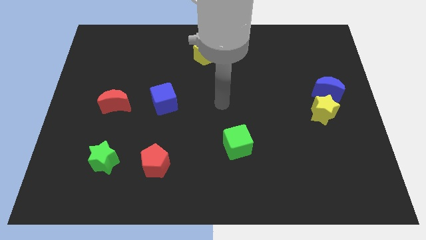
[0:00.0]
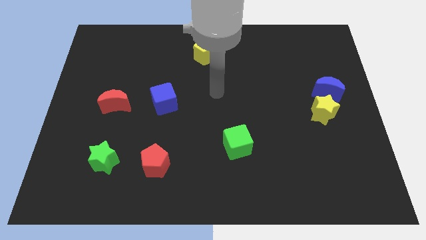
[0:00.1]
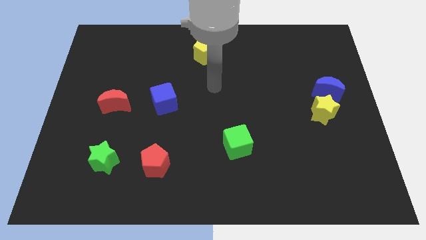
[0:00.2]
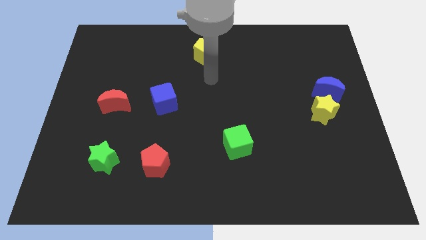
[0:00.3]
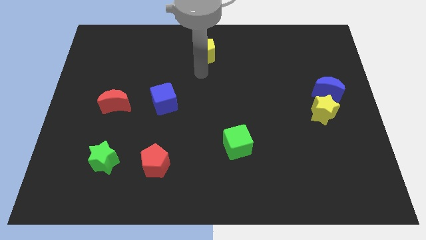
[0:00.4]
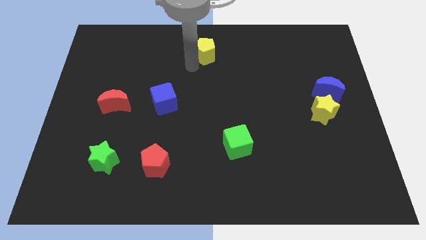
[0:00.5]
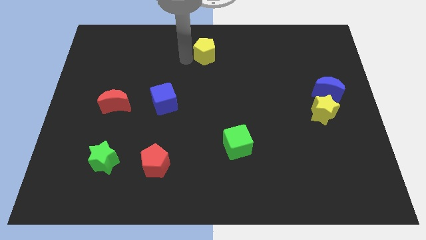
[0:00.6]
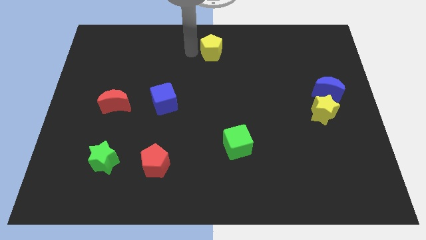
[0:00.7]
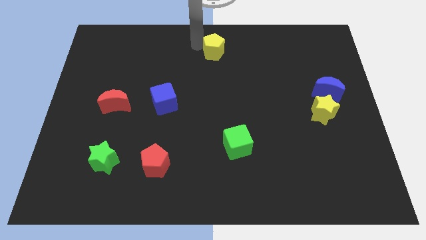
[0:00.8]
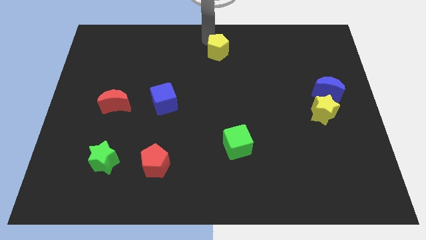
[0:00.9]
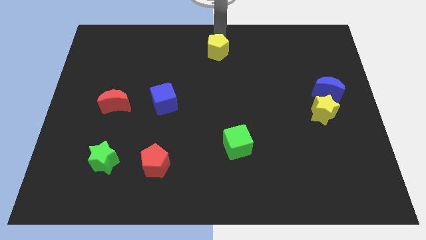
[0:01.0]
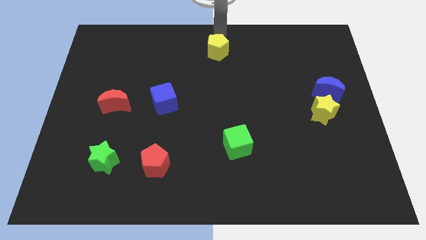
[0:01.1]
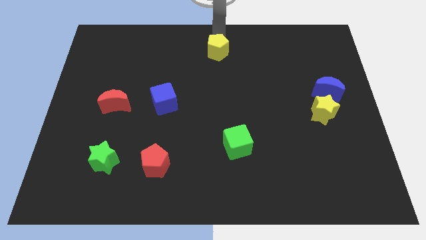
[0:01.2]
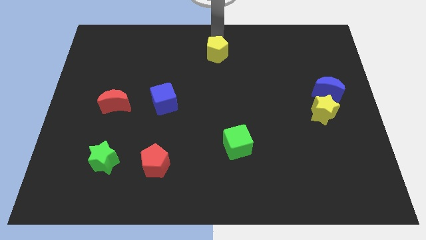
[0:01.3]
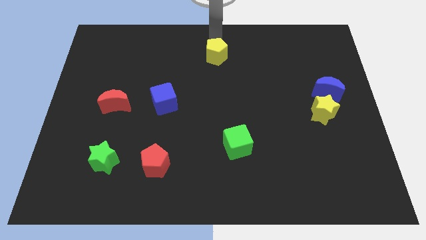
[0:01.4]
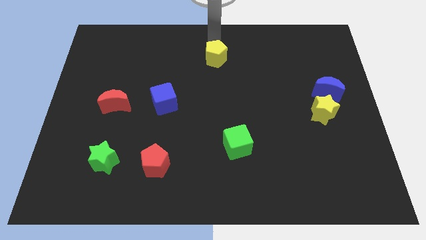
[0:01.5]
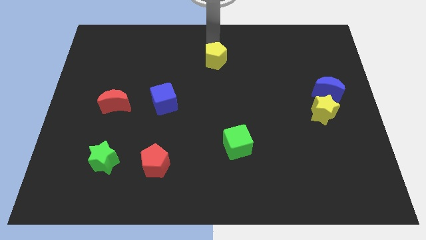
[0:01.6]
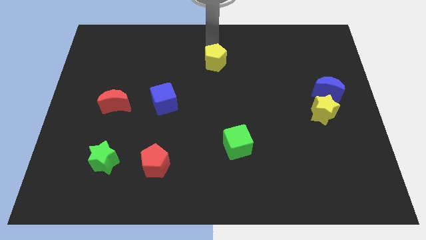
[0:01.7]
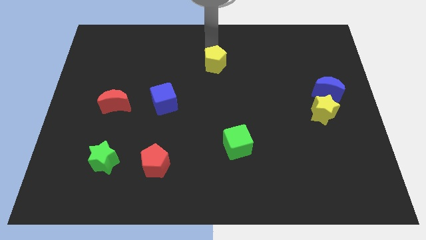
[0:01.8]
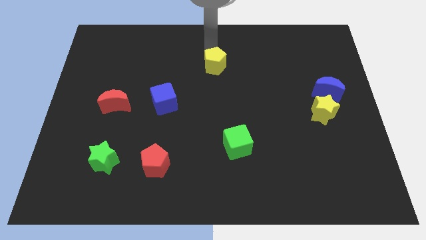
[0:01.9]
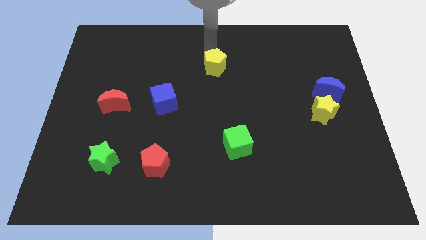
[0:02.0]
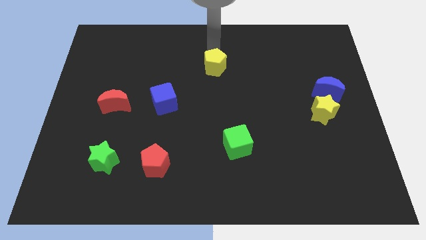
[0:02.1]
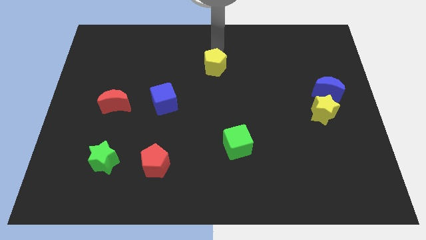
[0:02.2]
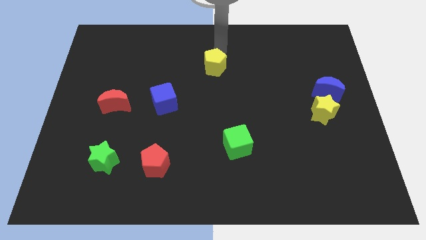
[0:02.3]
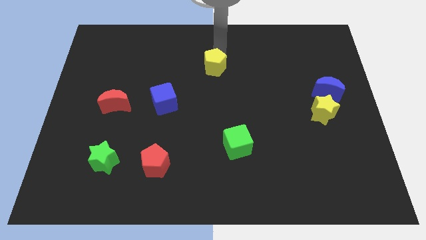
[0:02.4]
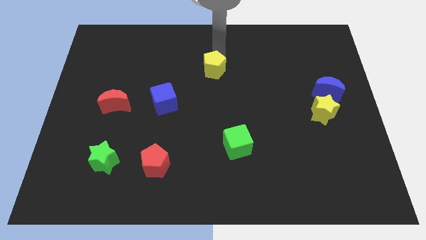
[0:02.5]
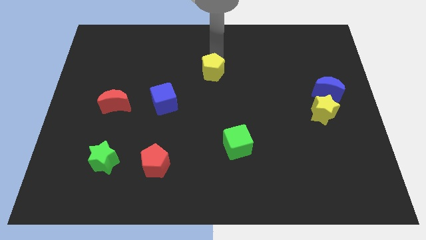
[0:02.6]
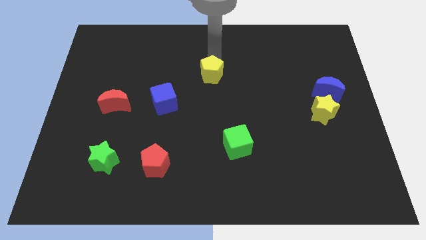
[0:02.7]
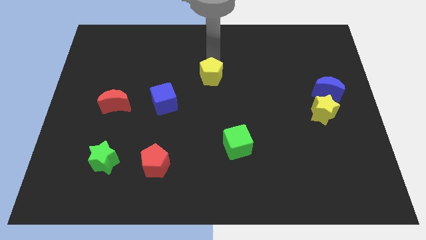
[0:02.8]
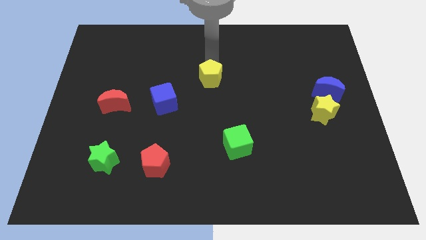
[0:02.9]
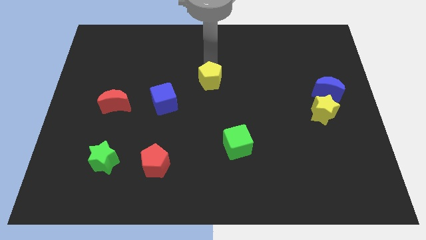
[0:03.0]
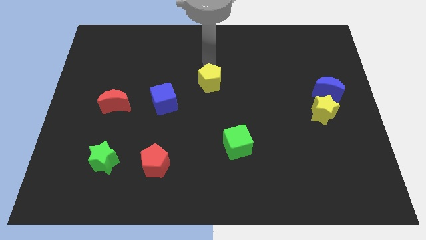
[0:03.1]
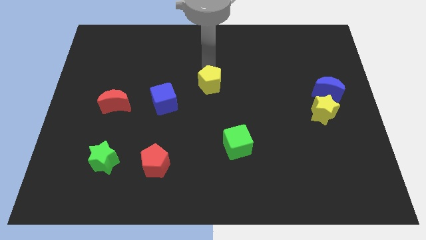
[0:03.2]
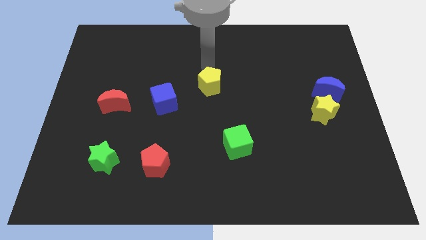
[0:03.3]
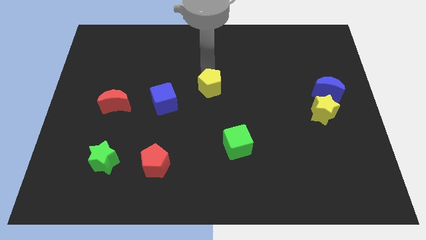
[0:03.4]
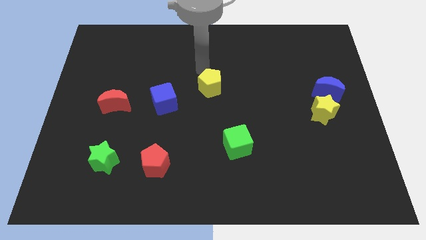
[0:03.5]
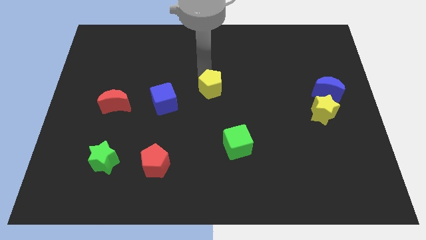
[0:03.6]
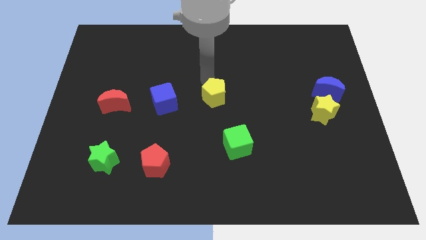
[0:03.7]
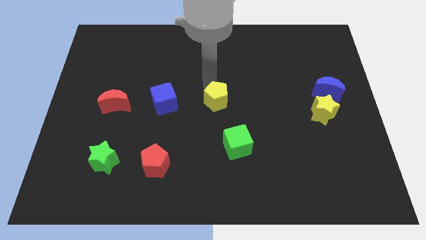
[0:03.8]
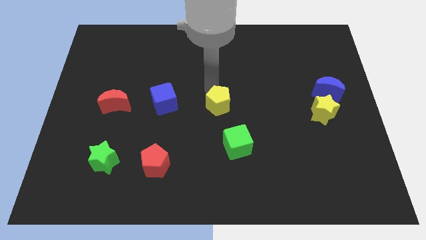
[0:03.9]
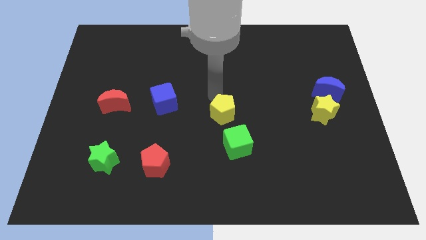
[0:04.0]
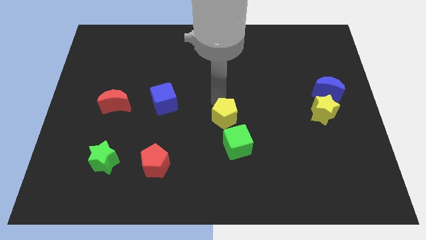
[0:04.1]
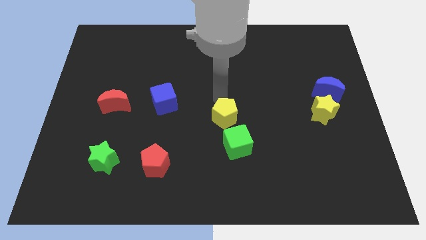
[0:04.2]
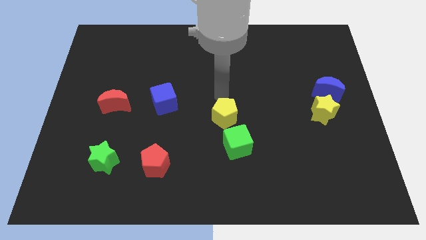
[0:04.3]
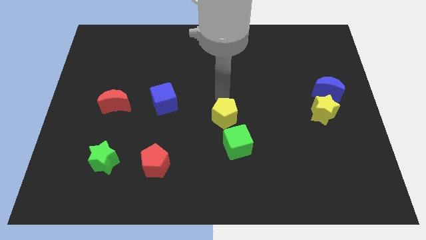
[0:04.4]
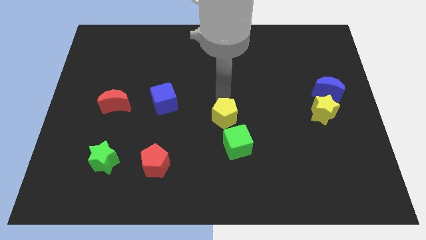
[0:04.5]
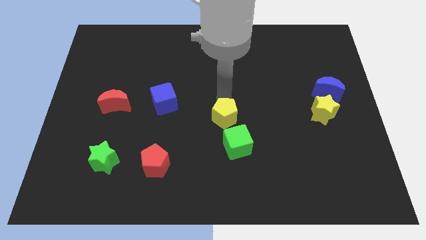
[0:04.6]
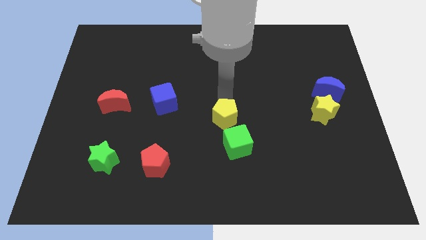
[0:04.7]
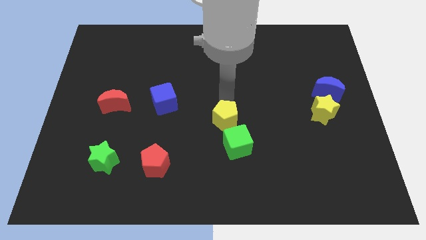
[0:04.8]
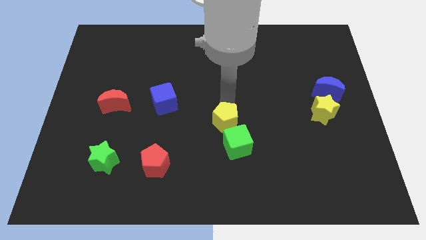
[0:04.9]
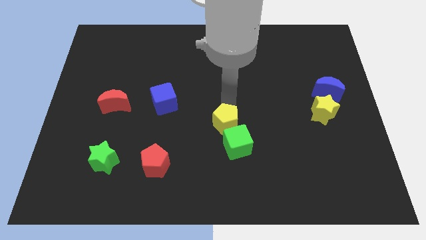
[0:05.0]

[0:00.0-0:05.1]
put the yellow pentagon next to the green cube

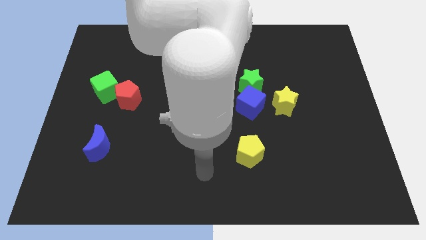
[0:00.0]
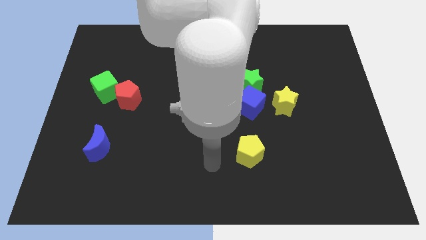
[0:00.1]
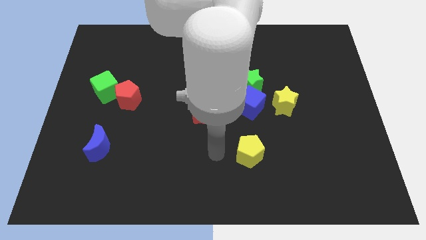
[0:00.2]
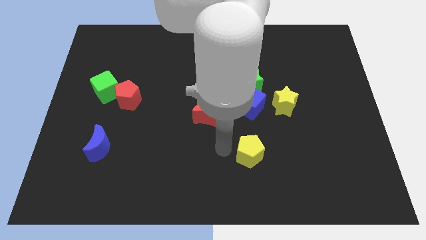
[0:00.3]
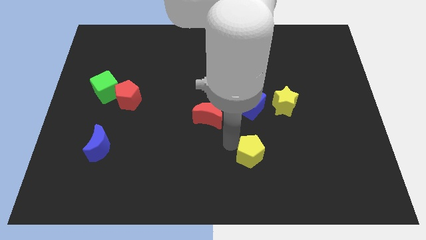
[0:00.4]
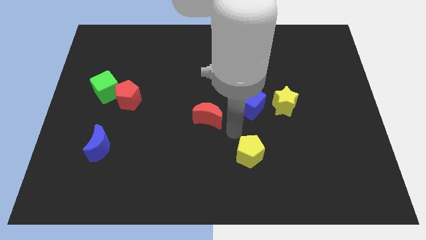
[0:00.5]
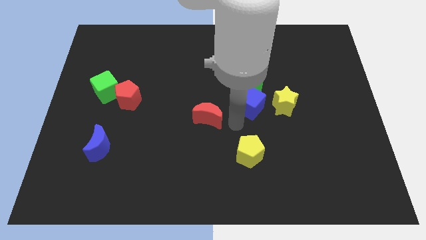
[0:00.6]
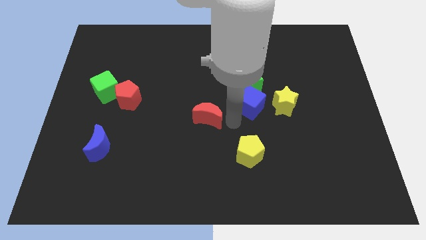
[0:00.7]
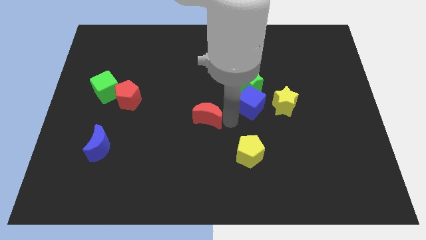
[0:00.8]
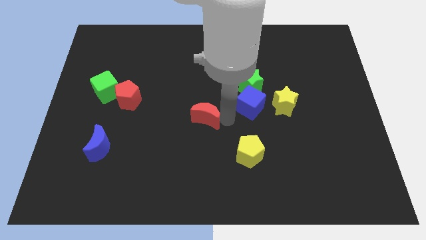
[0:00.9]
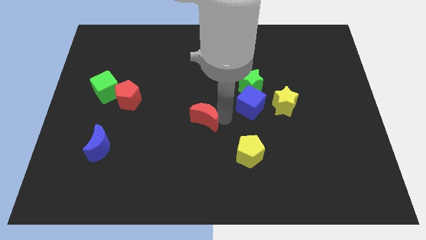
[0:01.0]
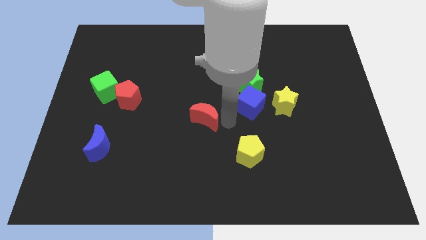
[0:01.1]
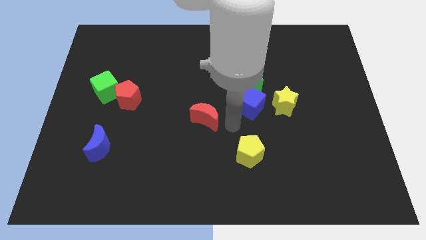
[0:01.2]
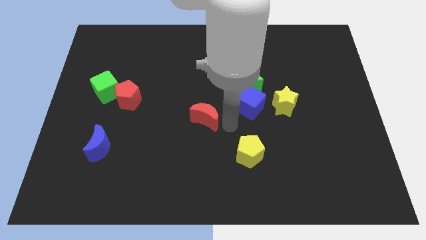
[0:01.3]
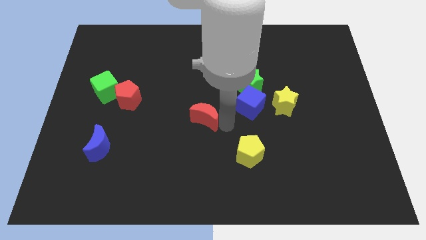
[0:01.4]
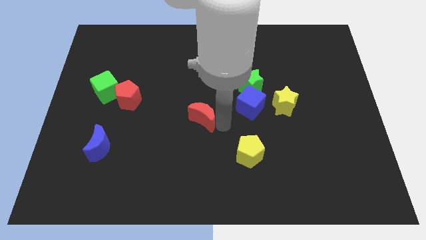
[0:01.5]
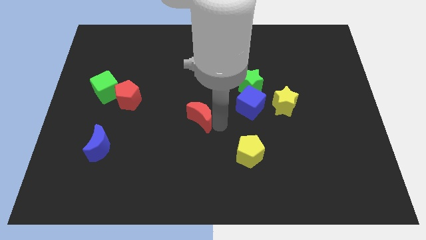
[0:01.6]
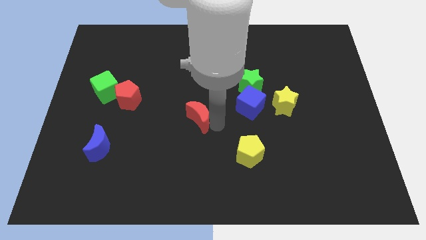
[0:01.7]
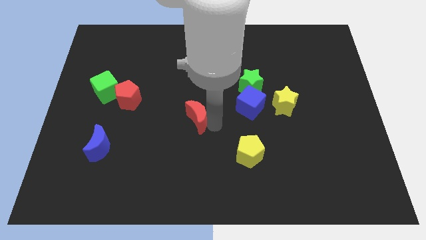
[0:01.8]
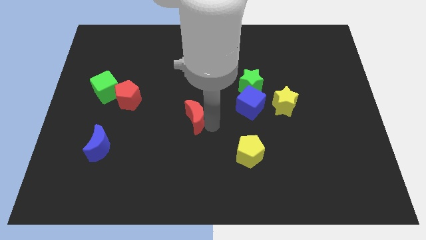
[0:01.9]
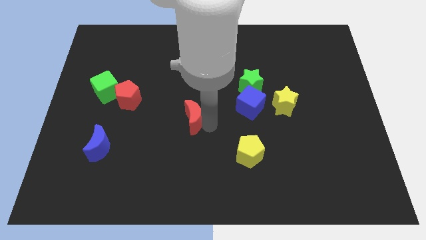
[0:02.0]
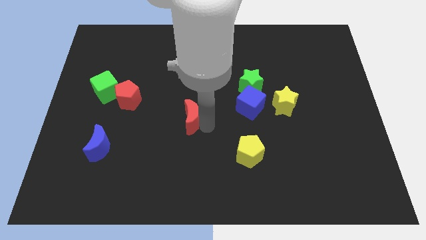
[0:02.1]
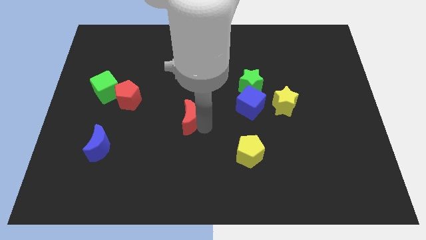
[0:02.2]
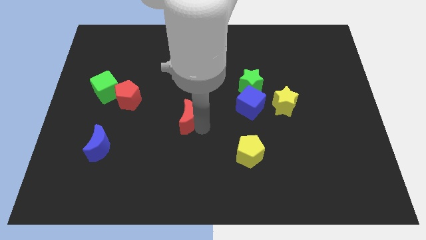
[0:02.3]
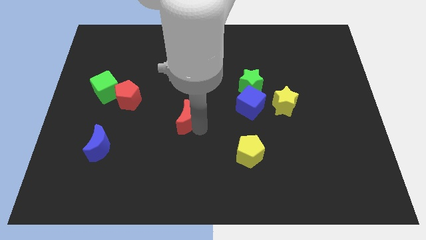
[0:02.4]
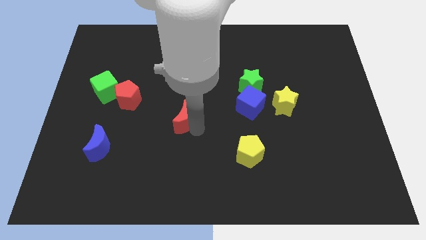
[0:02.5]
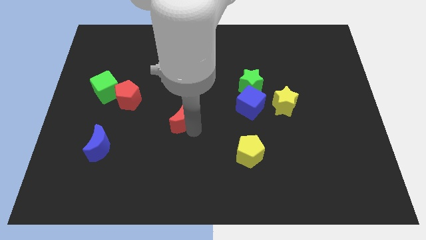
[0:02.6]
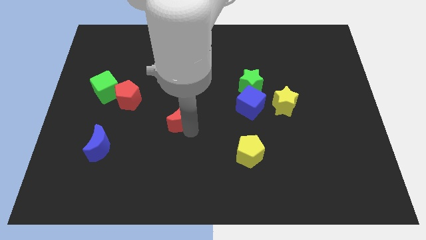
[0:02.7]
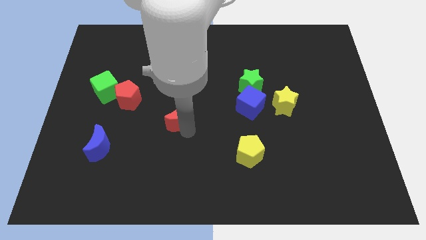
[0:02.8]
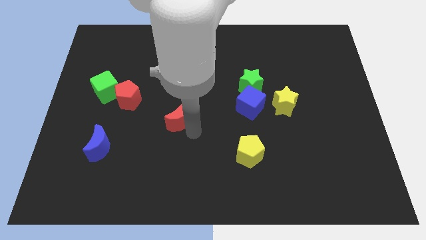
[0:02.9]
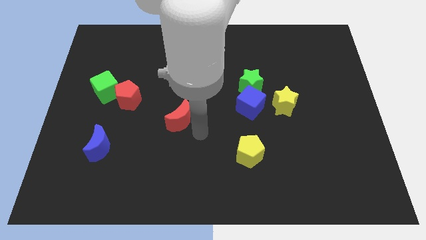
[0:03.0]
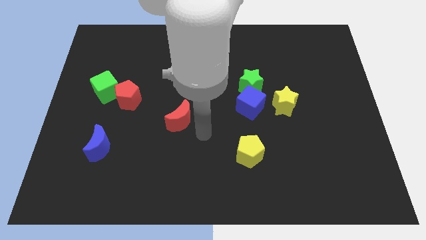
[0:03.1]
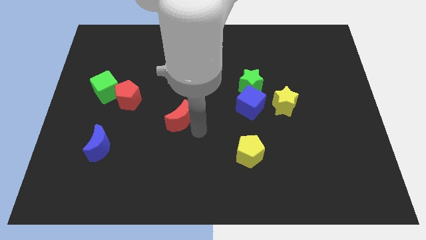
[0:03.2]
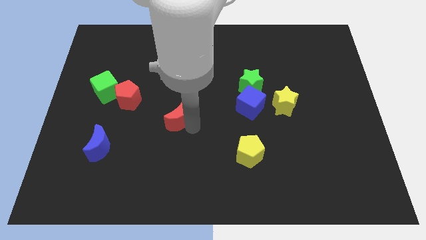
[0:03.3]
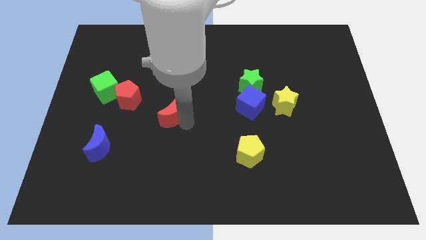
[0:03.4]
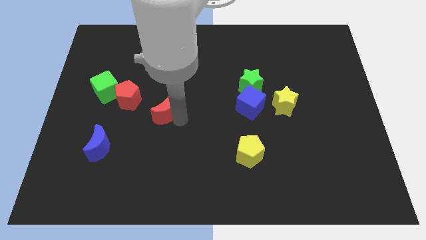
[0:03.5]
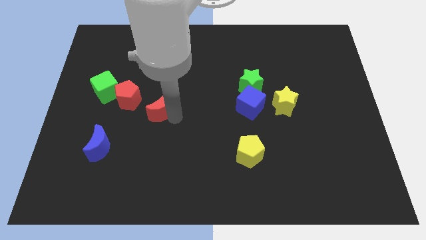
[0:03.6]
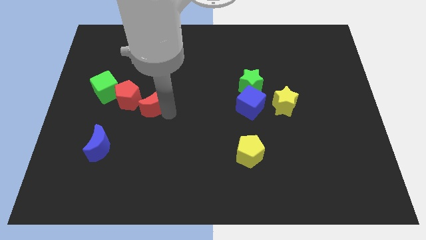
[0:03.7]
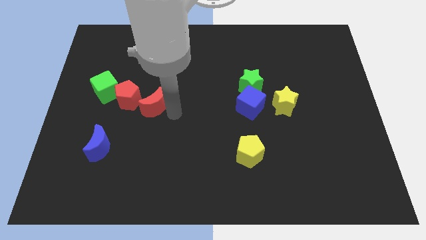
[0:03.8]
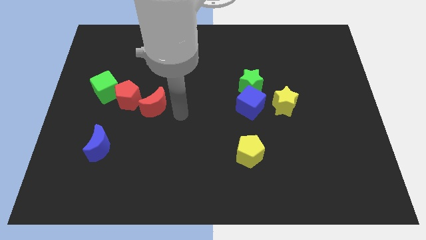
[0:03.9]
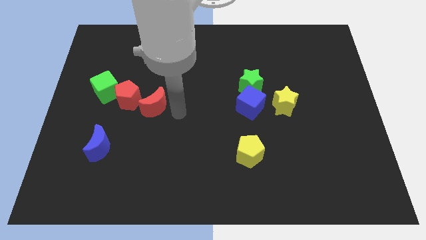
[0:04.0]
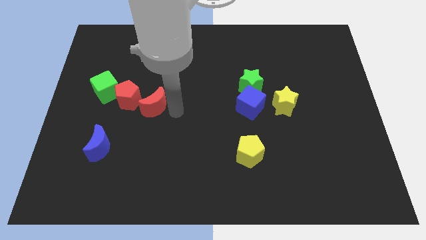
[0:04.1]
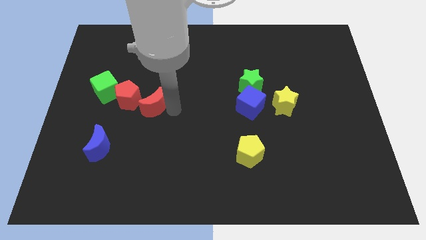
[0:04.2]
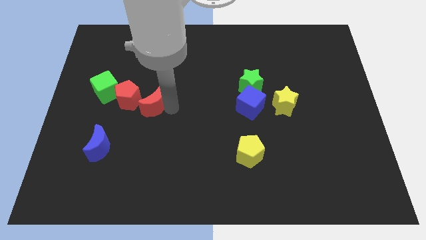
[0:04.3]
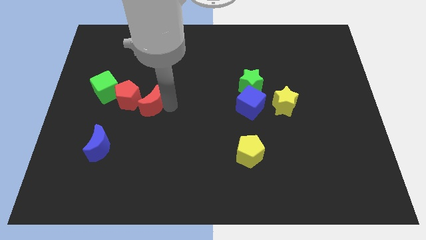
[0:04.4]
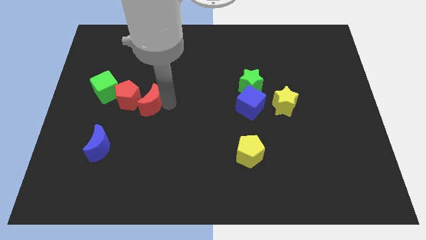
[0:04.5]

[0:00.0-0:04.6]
slide the red moon close to the red pentagon
